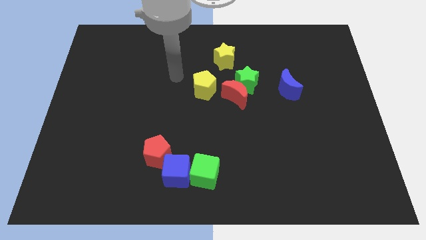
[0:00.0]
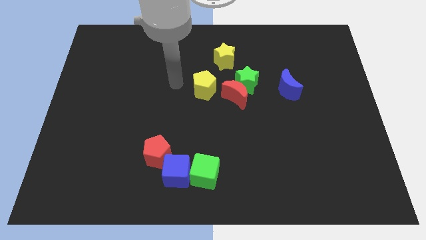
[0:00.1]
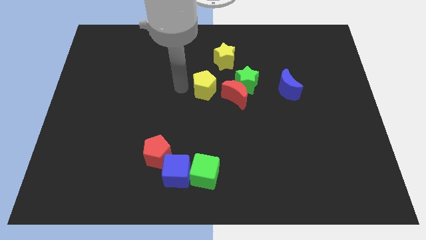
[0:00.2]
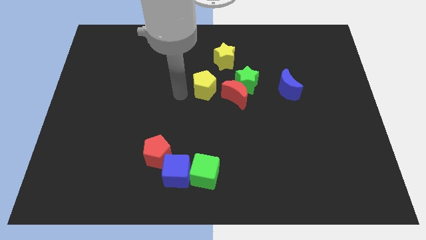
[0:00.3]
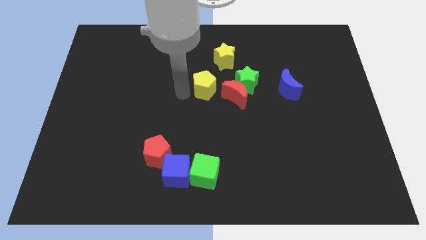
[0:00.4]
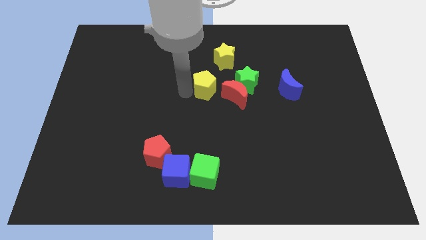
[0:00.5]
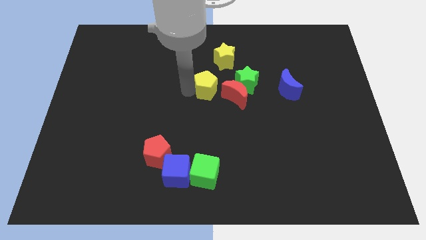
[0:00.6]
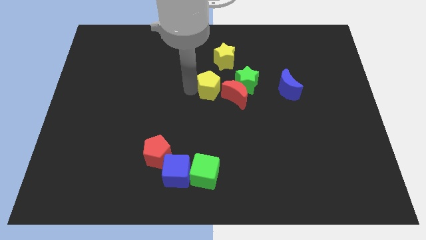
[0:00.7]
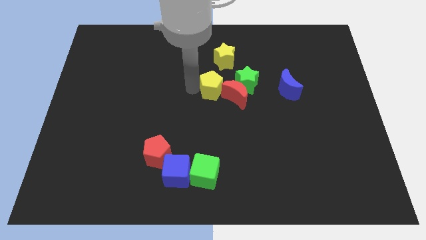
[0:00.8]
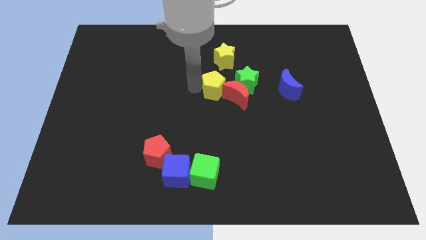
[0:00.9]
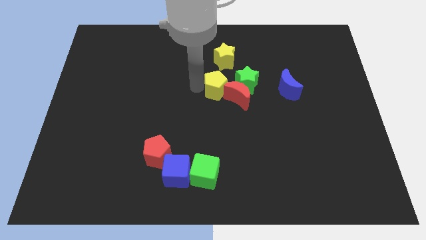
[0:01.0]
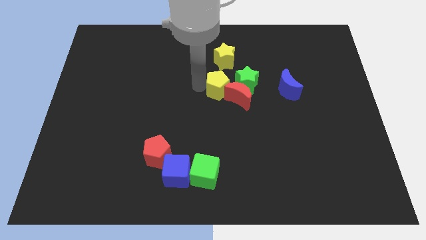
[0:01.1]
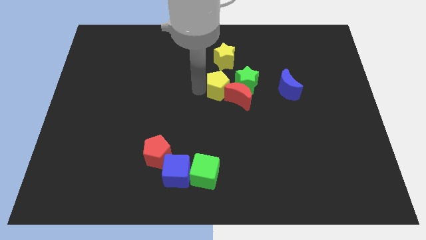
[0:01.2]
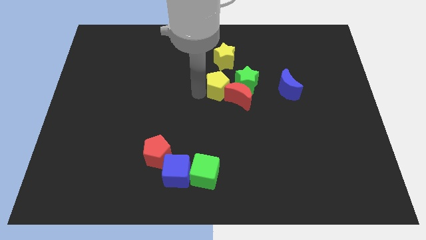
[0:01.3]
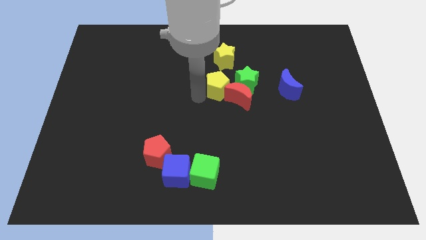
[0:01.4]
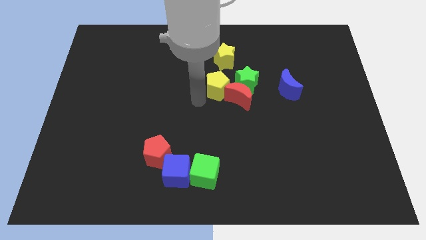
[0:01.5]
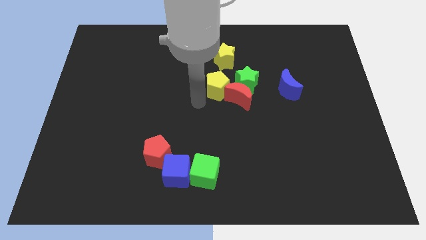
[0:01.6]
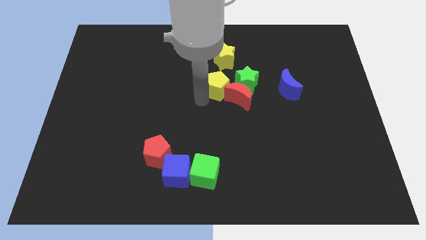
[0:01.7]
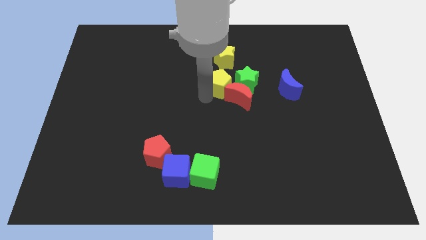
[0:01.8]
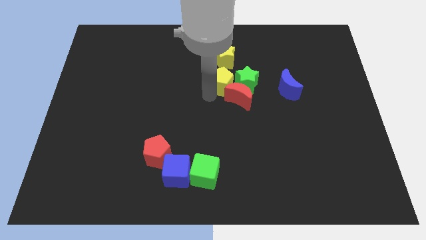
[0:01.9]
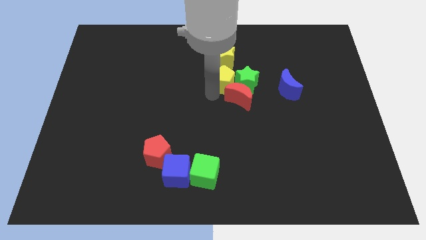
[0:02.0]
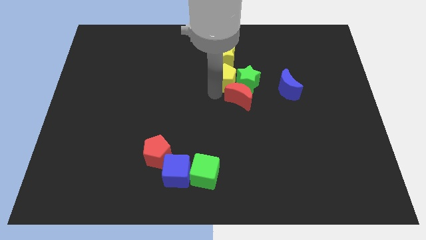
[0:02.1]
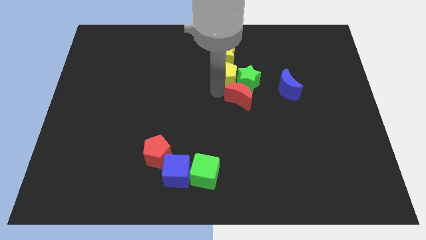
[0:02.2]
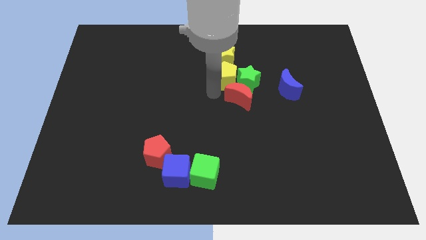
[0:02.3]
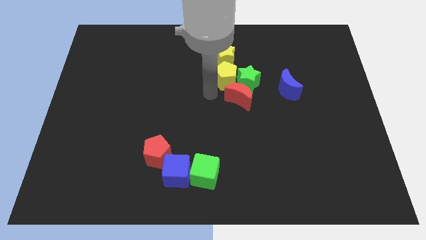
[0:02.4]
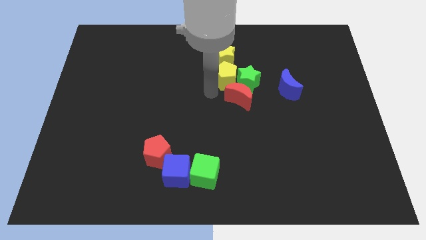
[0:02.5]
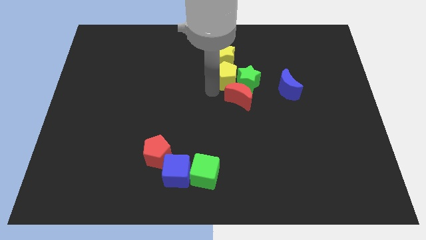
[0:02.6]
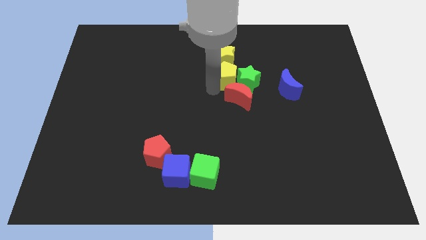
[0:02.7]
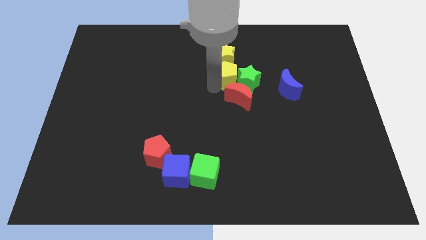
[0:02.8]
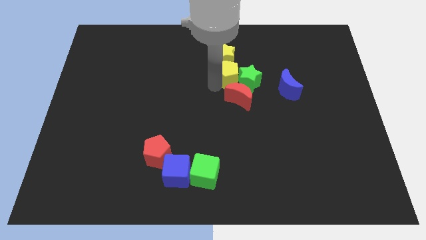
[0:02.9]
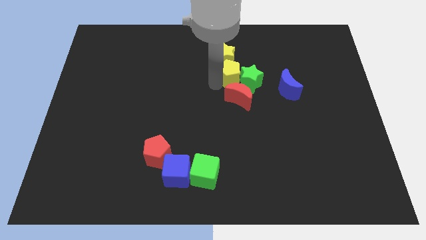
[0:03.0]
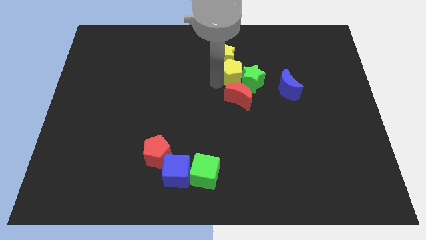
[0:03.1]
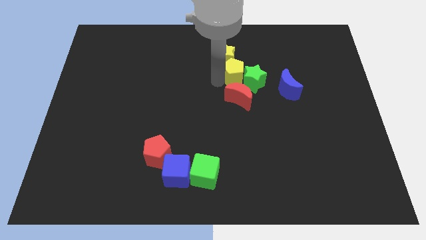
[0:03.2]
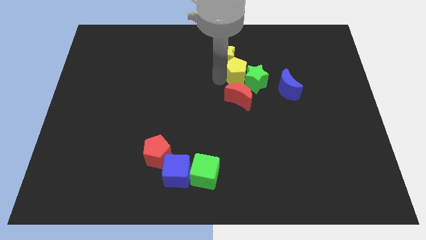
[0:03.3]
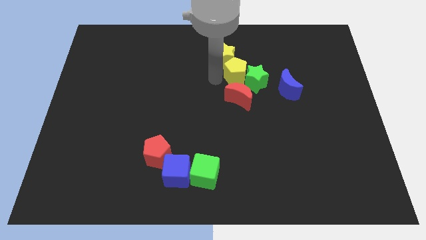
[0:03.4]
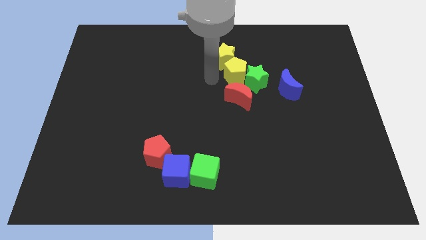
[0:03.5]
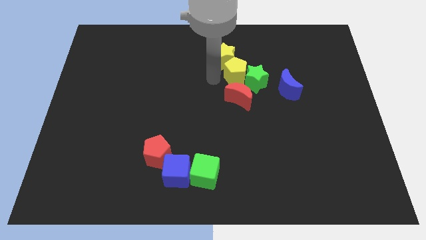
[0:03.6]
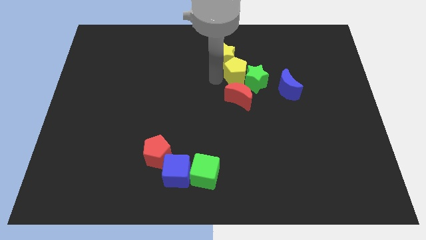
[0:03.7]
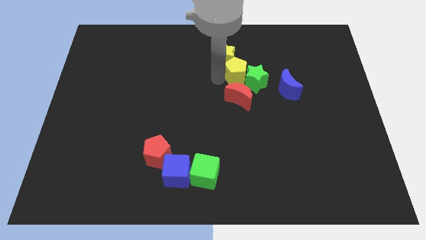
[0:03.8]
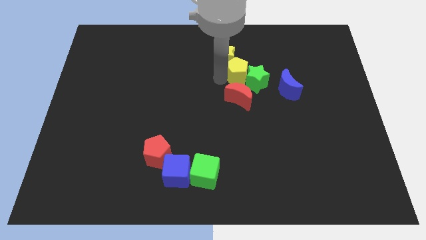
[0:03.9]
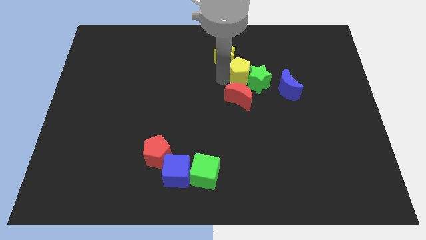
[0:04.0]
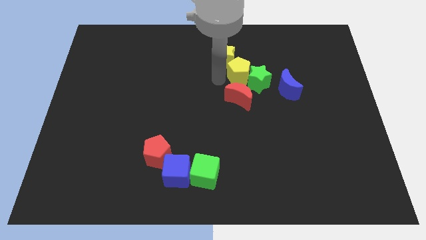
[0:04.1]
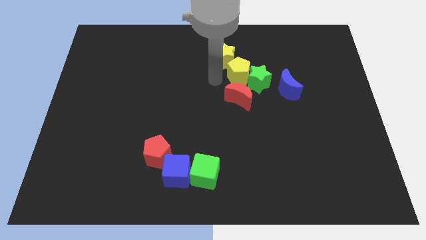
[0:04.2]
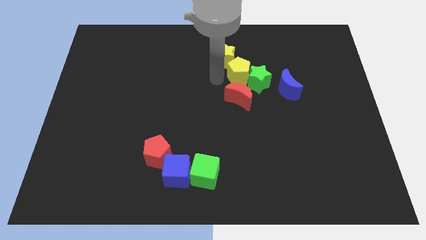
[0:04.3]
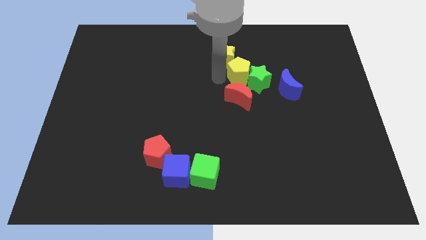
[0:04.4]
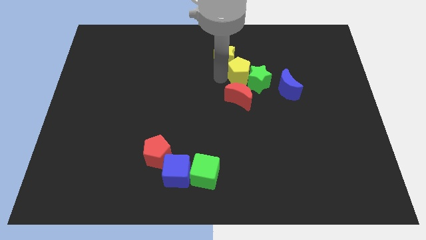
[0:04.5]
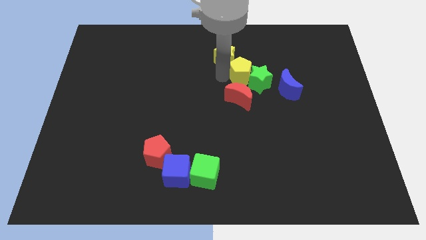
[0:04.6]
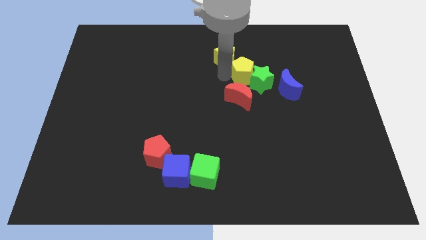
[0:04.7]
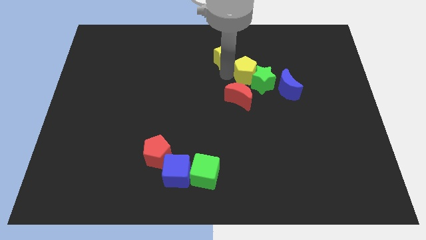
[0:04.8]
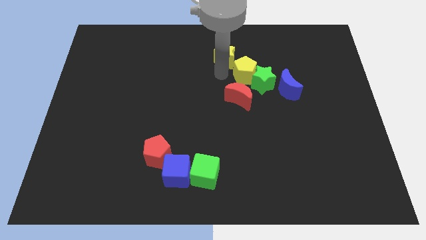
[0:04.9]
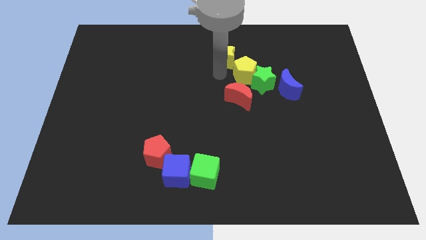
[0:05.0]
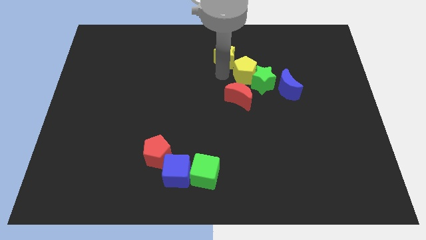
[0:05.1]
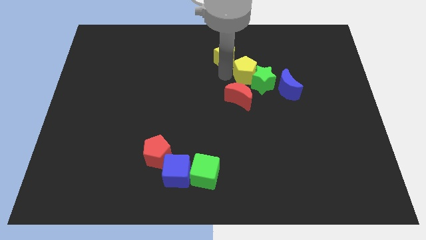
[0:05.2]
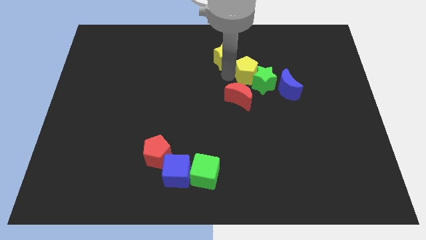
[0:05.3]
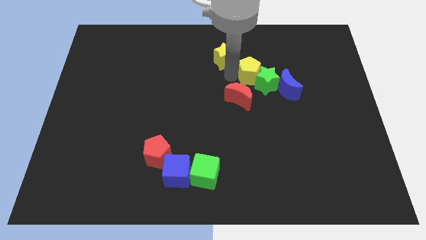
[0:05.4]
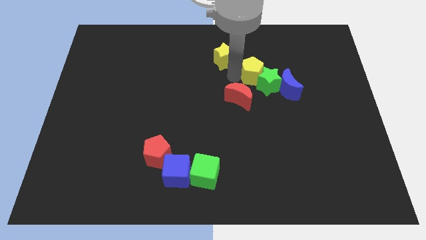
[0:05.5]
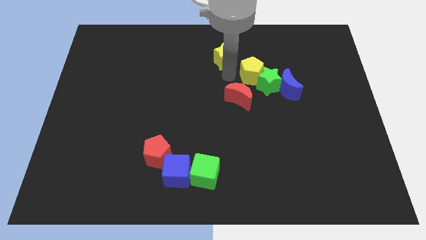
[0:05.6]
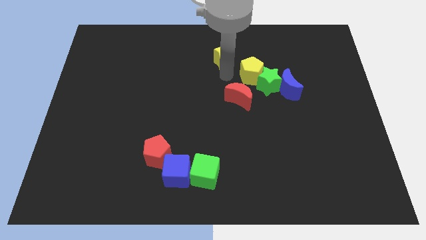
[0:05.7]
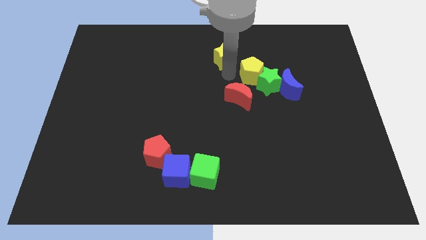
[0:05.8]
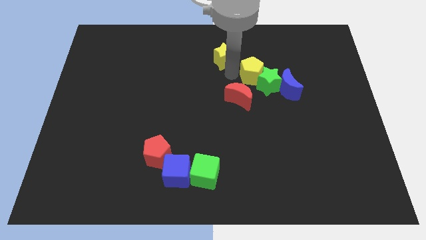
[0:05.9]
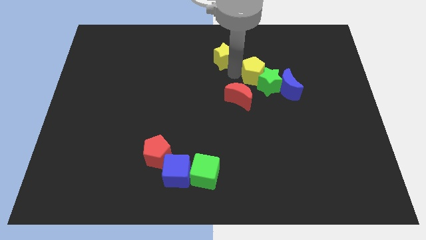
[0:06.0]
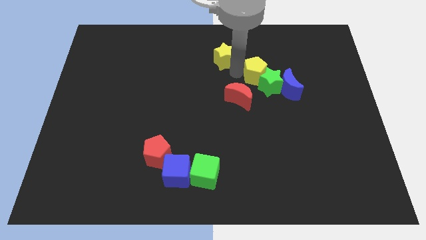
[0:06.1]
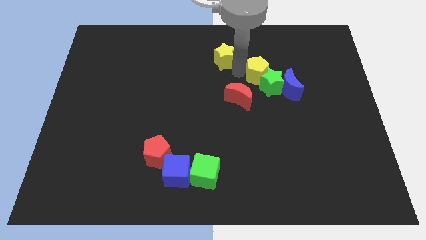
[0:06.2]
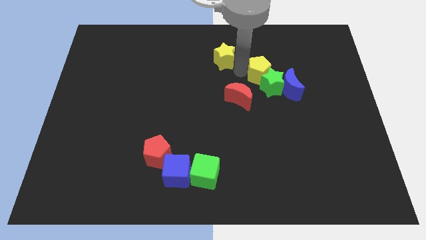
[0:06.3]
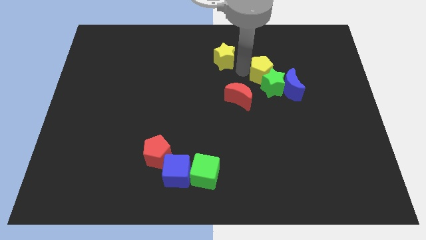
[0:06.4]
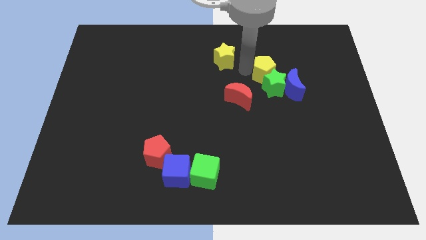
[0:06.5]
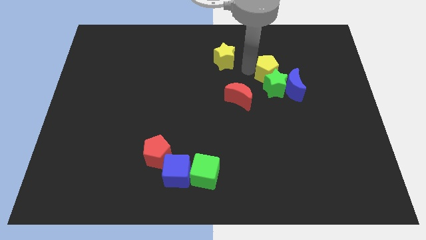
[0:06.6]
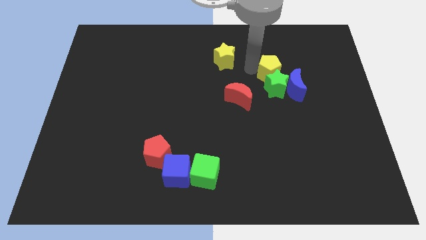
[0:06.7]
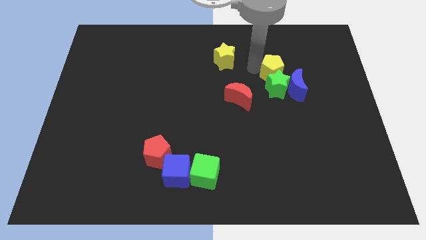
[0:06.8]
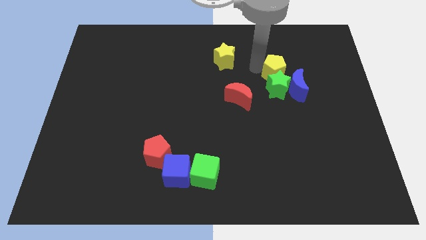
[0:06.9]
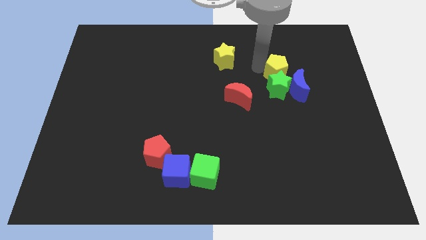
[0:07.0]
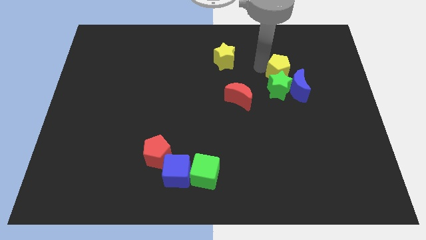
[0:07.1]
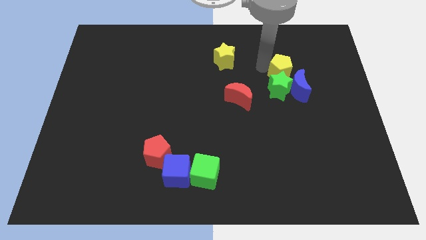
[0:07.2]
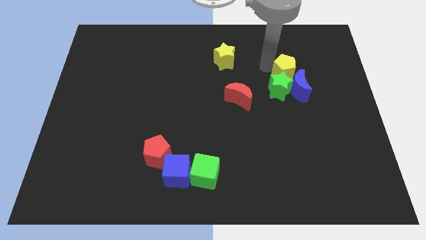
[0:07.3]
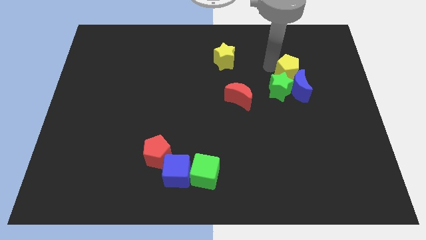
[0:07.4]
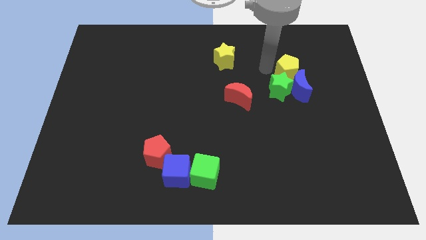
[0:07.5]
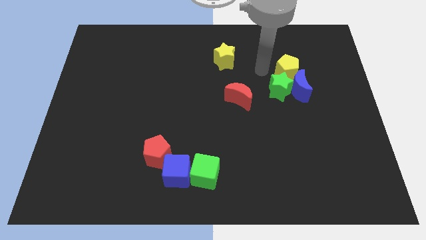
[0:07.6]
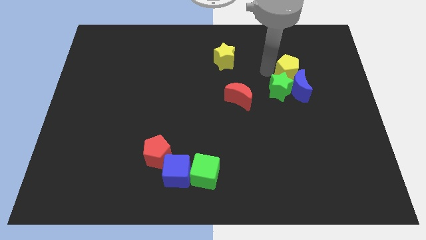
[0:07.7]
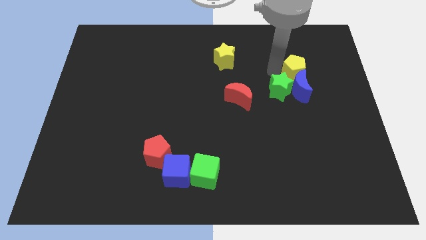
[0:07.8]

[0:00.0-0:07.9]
push the yellow pentagon to the top right of the blue moon
